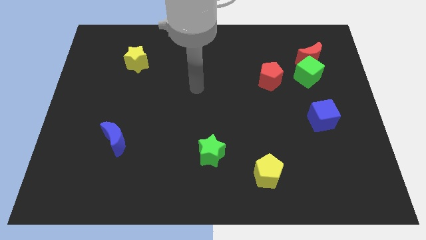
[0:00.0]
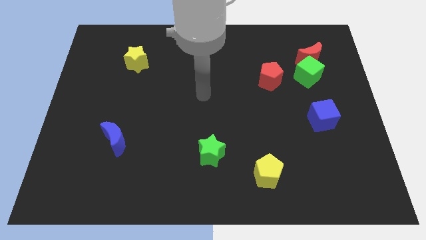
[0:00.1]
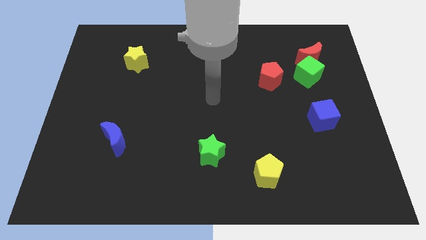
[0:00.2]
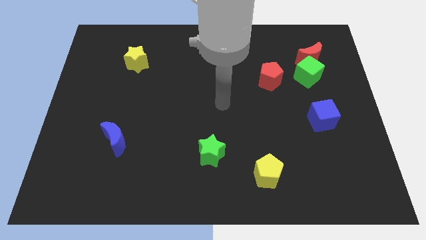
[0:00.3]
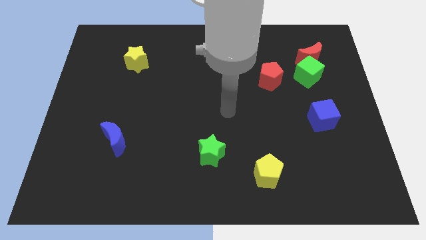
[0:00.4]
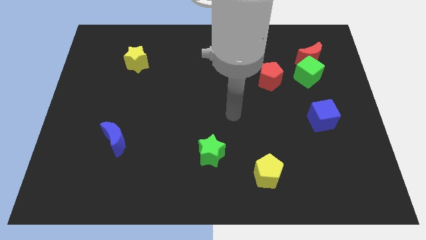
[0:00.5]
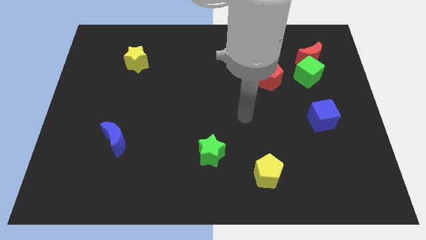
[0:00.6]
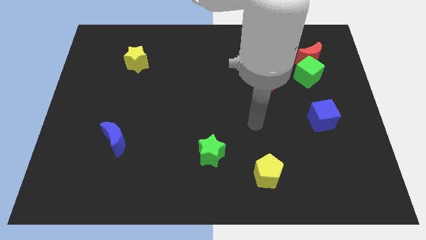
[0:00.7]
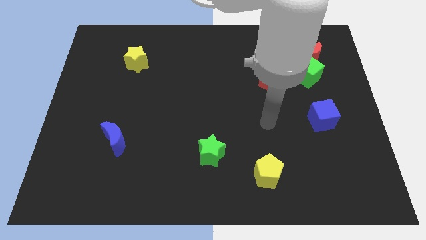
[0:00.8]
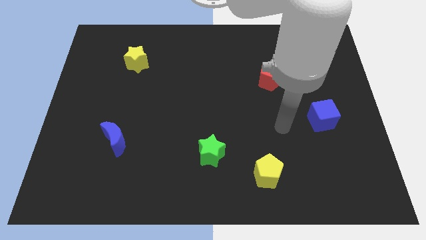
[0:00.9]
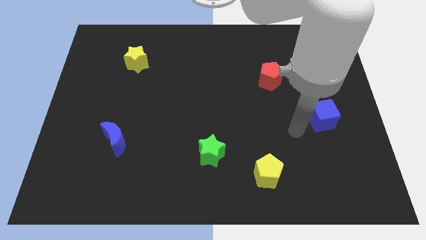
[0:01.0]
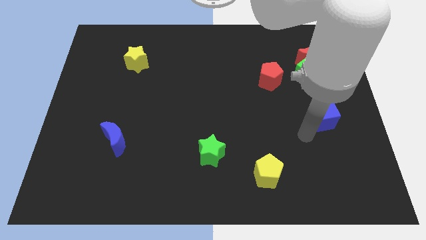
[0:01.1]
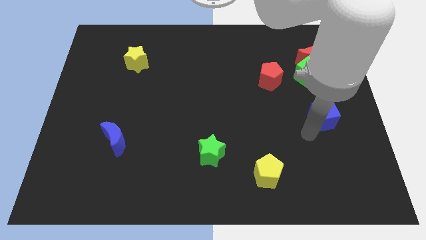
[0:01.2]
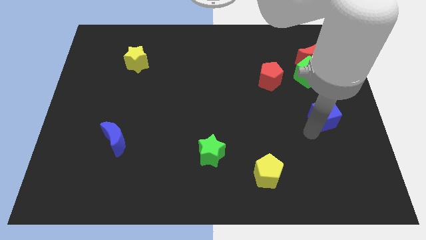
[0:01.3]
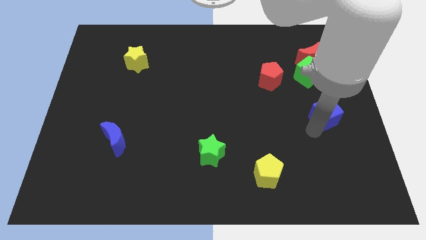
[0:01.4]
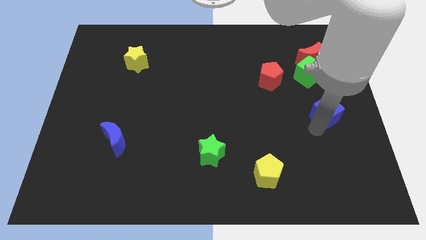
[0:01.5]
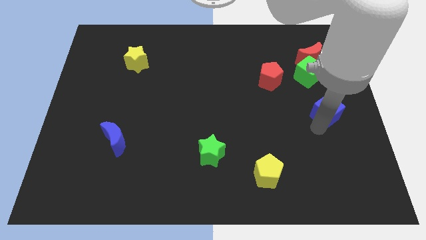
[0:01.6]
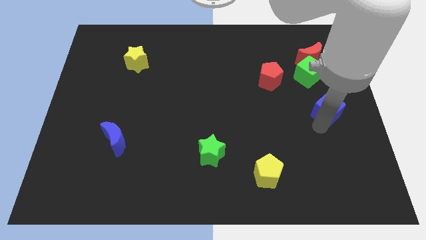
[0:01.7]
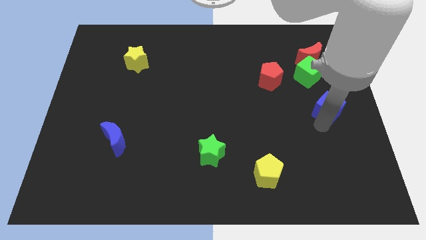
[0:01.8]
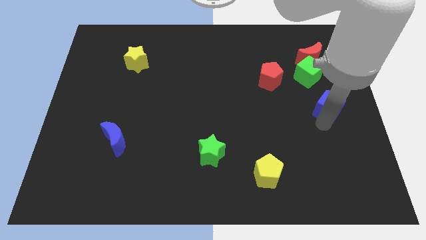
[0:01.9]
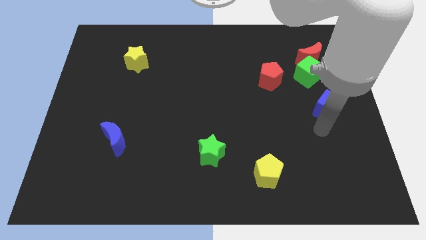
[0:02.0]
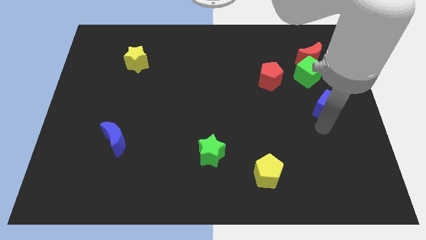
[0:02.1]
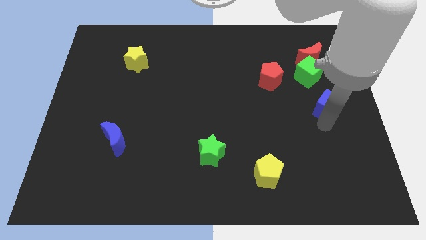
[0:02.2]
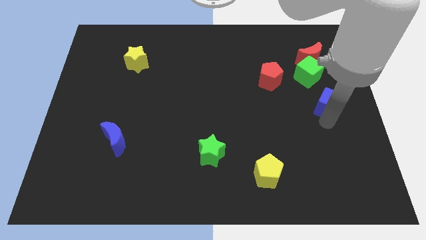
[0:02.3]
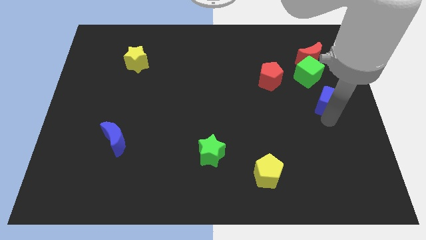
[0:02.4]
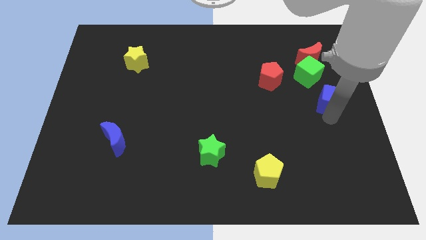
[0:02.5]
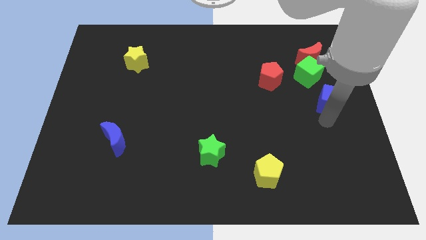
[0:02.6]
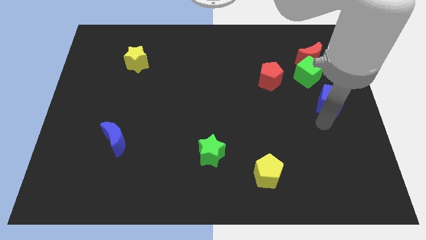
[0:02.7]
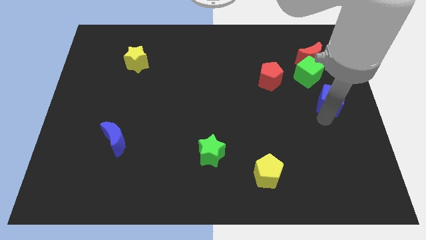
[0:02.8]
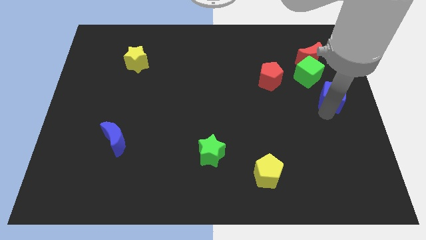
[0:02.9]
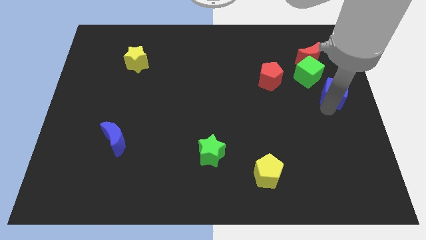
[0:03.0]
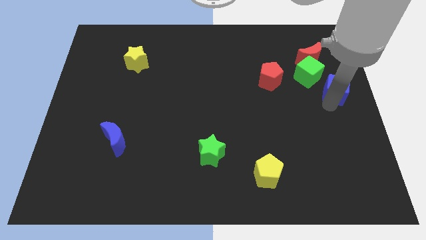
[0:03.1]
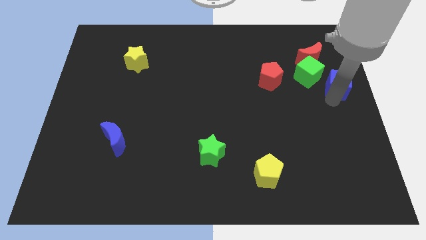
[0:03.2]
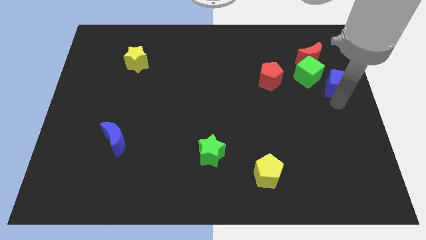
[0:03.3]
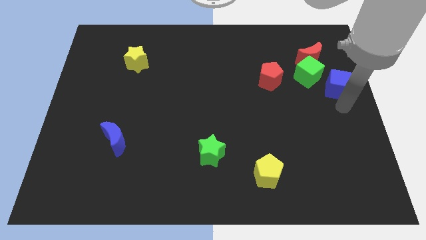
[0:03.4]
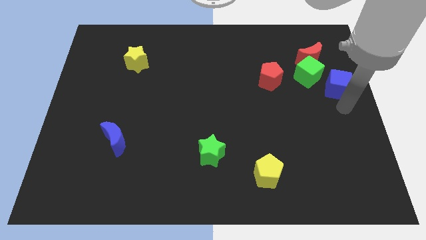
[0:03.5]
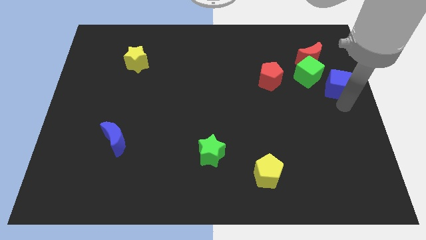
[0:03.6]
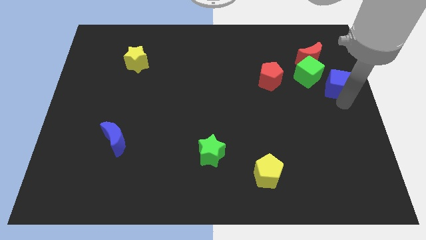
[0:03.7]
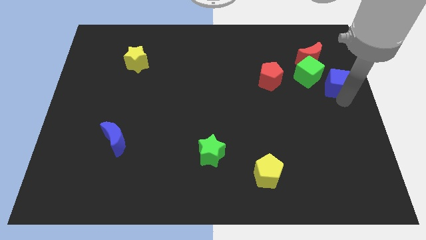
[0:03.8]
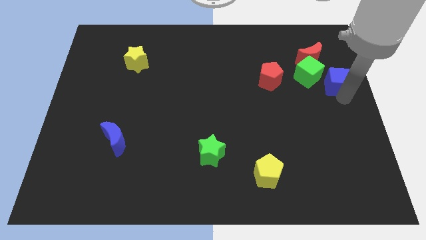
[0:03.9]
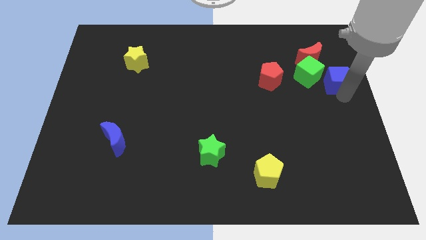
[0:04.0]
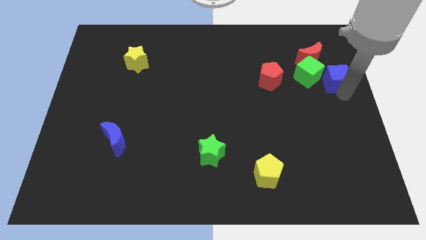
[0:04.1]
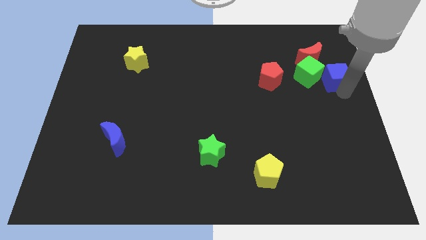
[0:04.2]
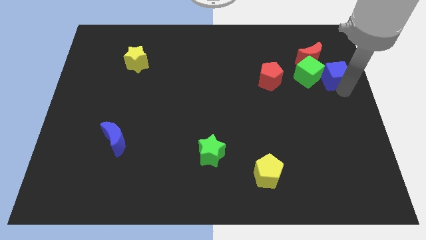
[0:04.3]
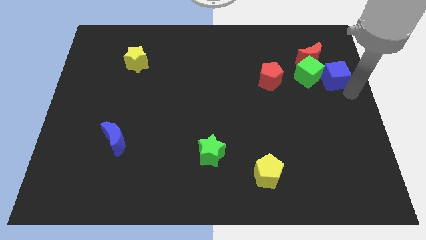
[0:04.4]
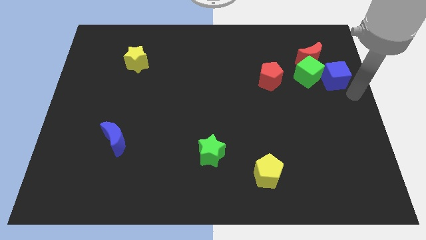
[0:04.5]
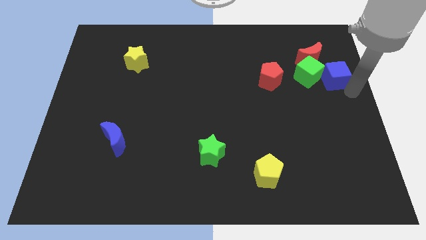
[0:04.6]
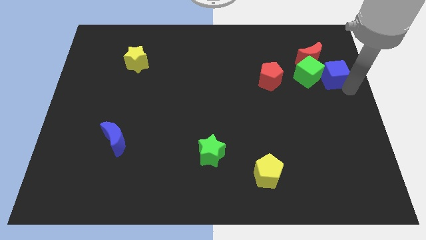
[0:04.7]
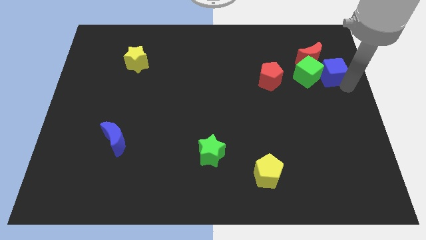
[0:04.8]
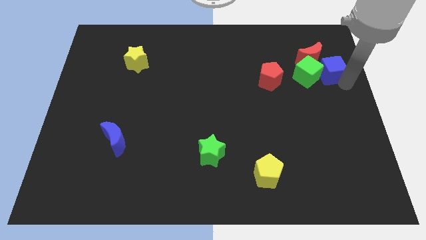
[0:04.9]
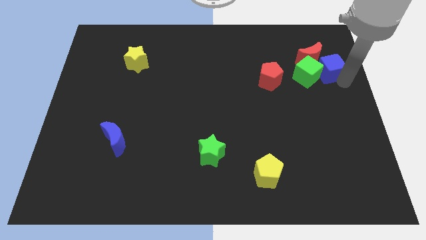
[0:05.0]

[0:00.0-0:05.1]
slide the blue cube next to the red moon
